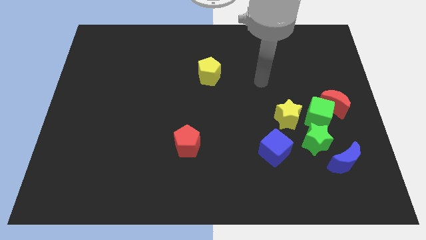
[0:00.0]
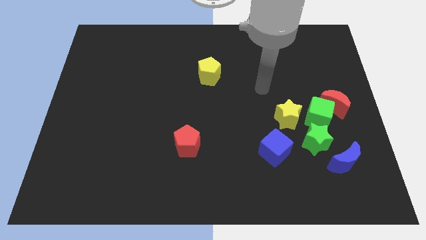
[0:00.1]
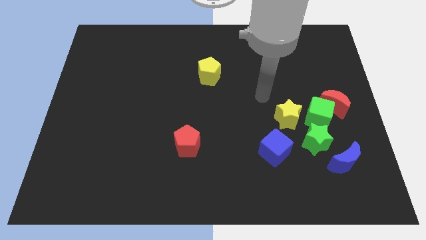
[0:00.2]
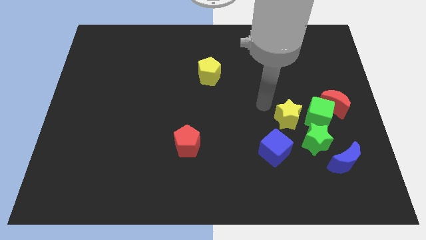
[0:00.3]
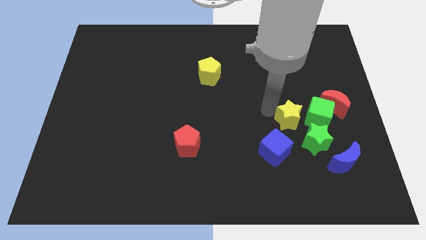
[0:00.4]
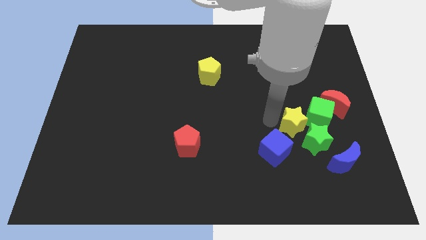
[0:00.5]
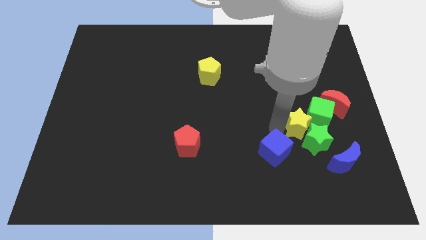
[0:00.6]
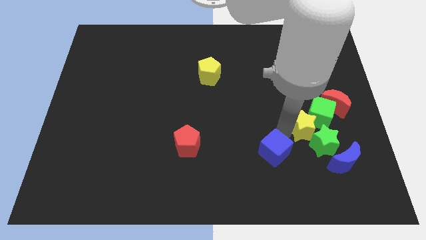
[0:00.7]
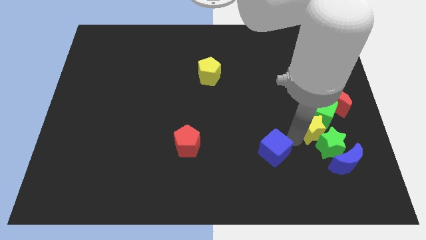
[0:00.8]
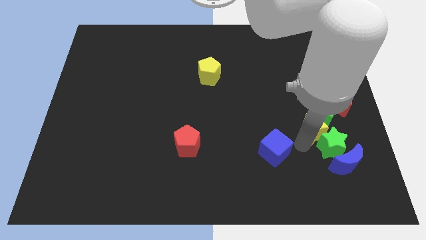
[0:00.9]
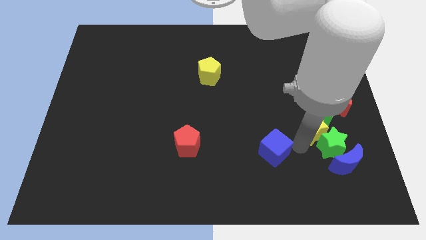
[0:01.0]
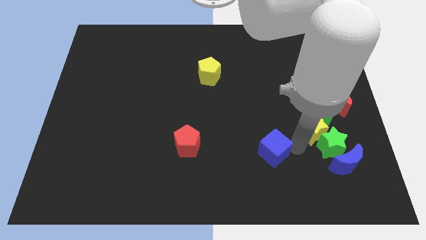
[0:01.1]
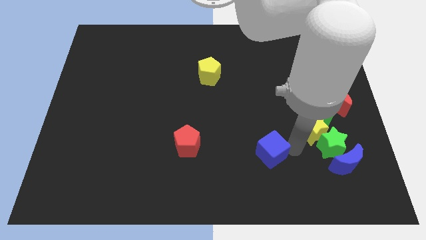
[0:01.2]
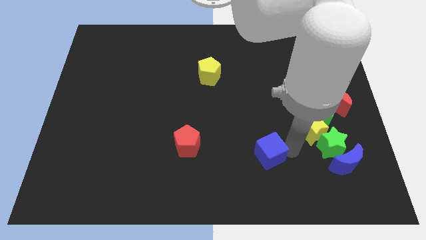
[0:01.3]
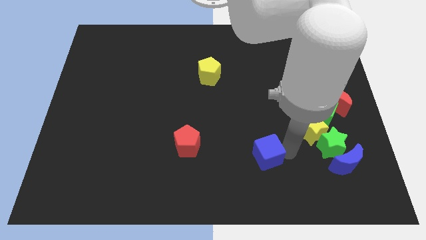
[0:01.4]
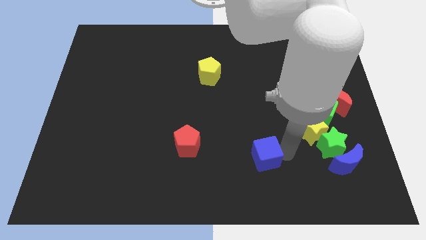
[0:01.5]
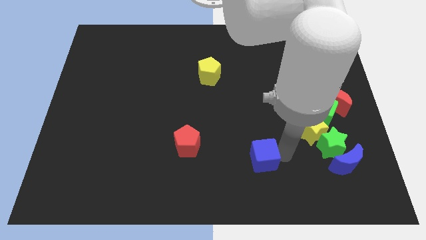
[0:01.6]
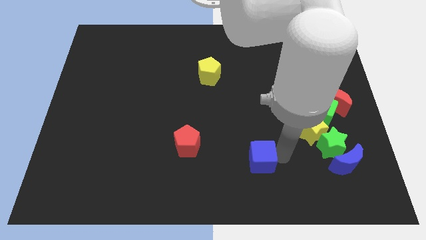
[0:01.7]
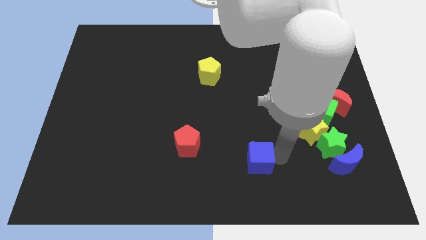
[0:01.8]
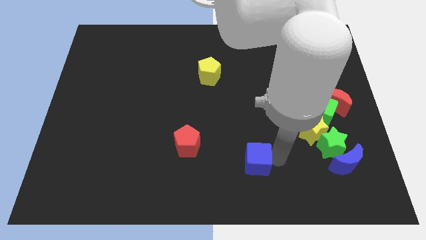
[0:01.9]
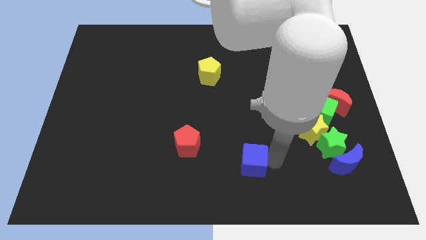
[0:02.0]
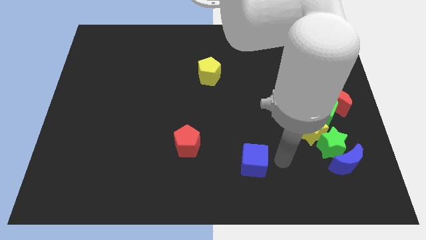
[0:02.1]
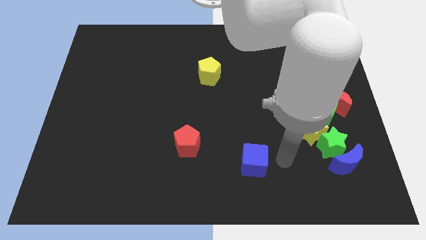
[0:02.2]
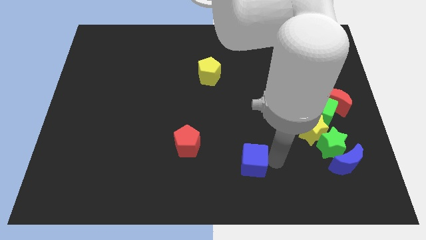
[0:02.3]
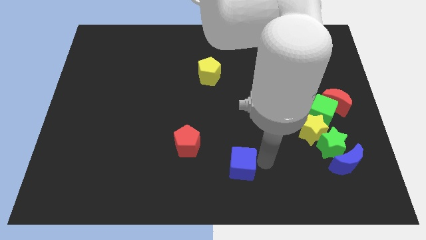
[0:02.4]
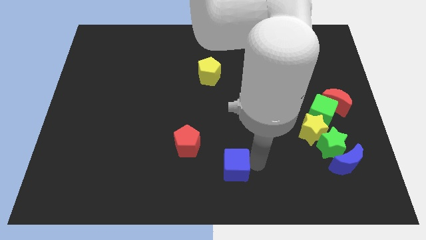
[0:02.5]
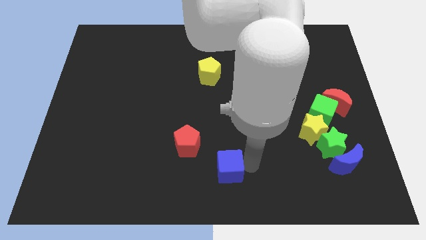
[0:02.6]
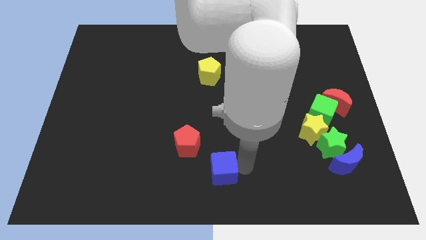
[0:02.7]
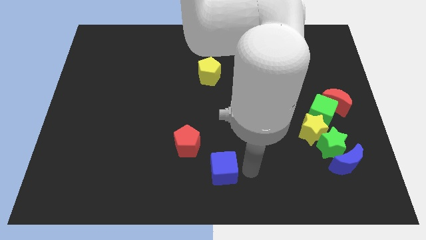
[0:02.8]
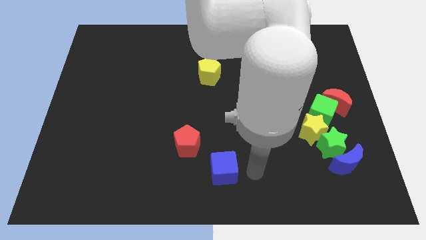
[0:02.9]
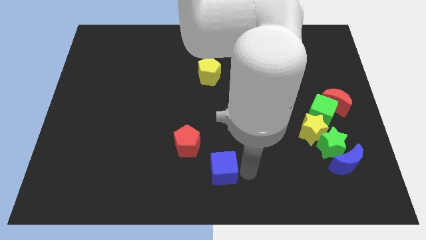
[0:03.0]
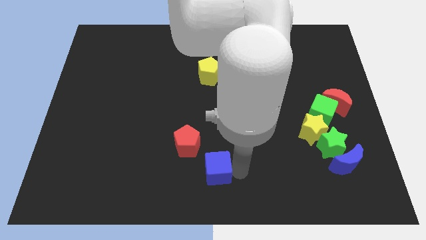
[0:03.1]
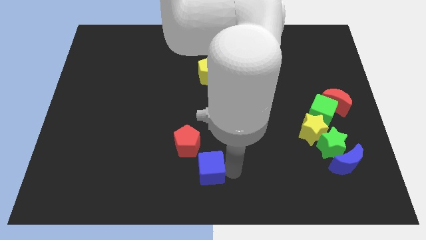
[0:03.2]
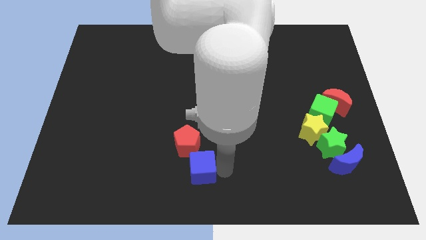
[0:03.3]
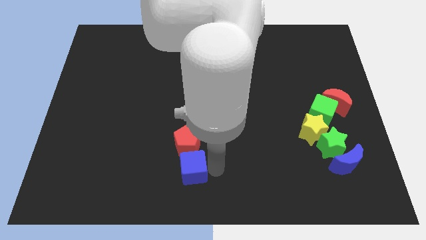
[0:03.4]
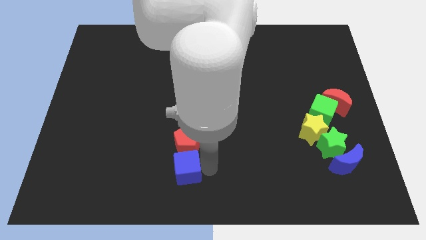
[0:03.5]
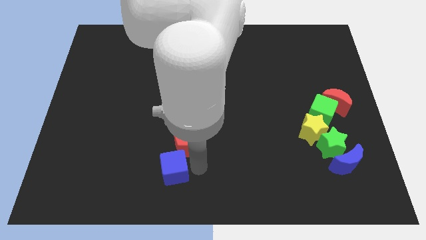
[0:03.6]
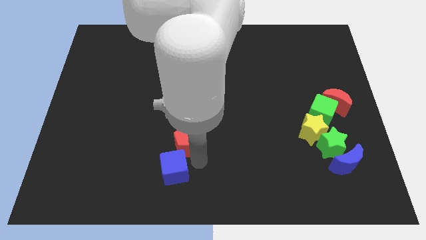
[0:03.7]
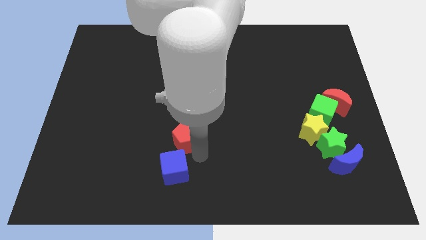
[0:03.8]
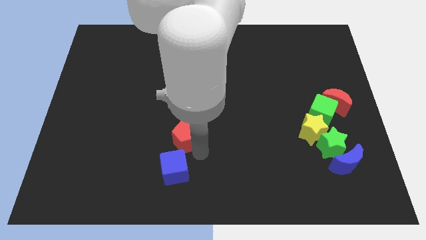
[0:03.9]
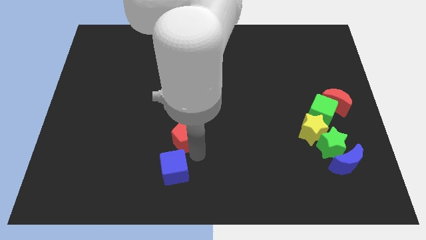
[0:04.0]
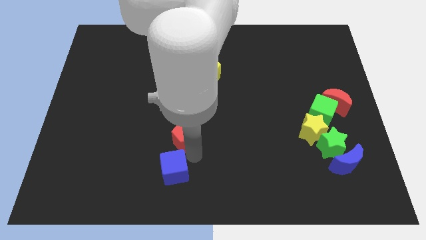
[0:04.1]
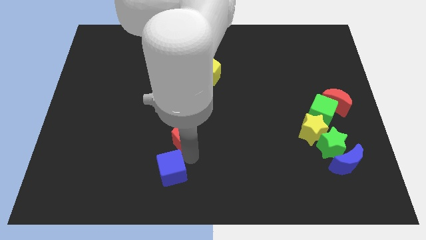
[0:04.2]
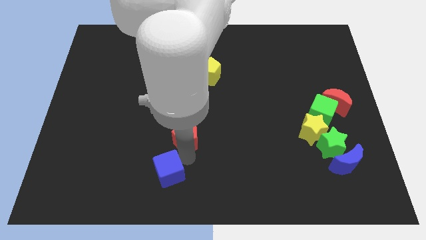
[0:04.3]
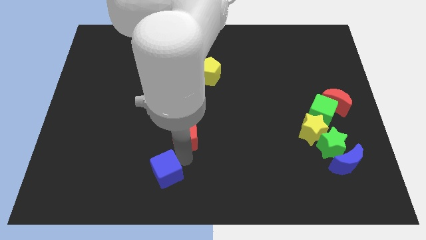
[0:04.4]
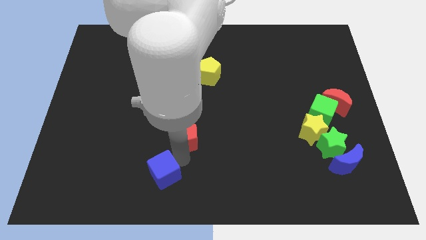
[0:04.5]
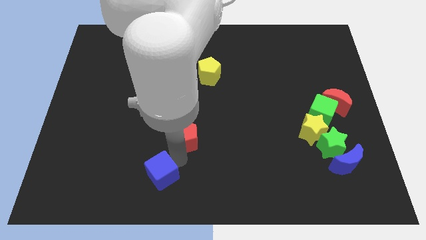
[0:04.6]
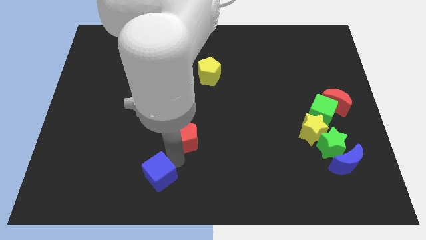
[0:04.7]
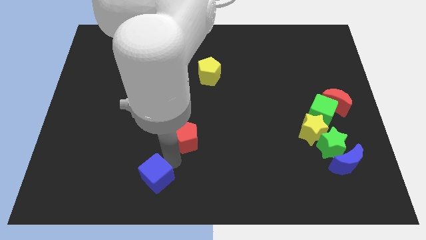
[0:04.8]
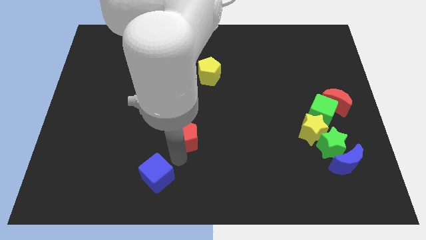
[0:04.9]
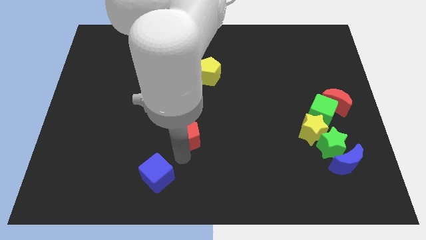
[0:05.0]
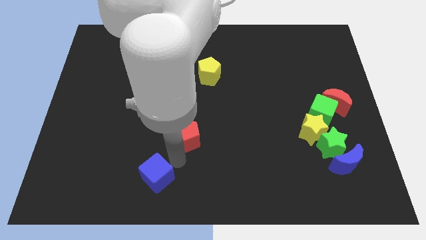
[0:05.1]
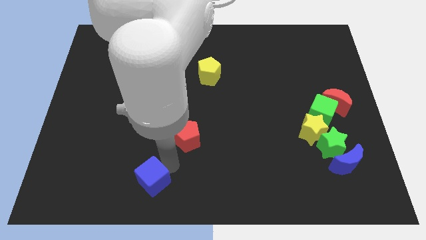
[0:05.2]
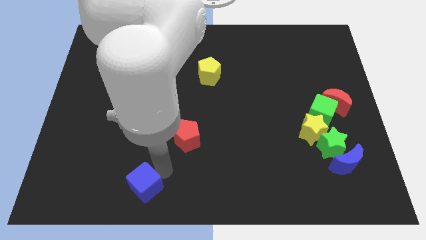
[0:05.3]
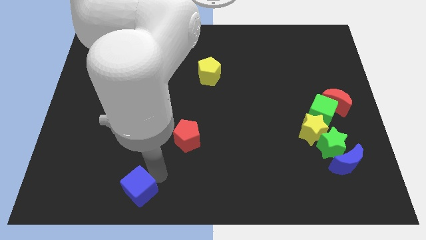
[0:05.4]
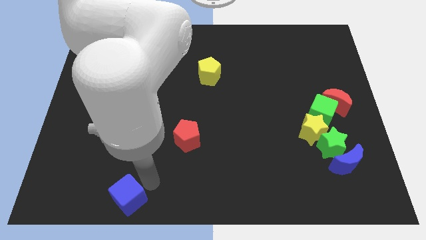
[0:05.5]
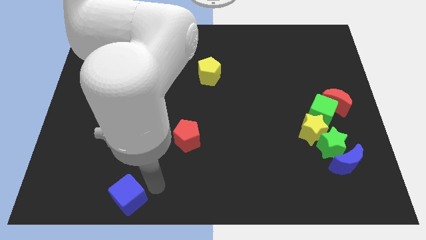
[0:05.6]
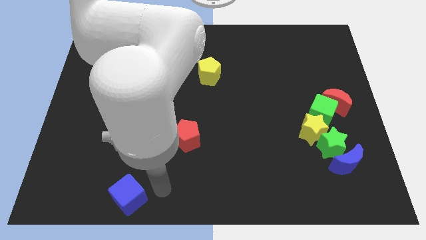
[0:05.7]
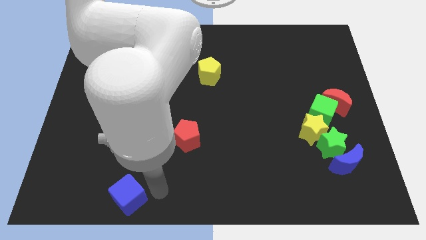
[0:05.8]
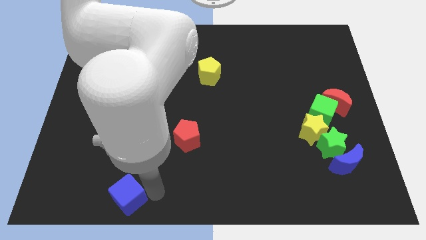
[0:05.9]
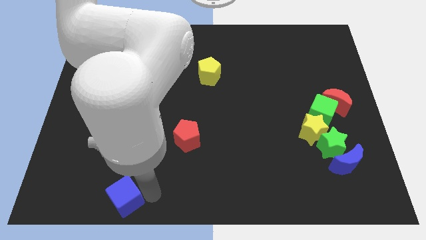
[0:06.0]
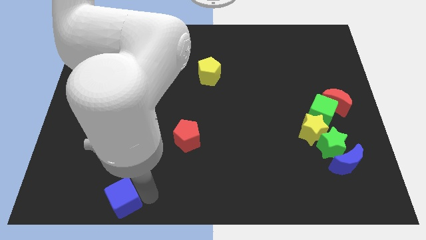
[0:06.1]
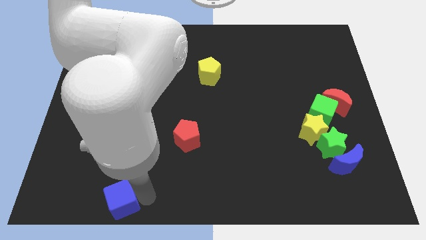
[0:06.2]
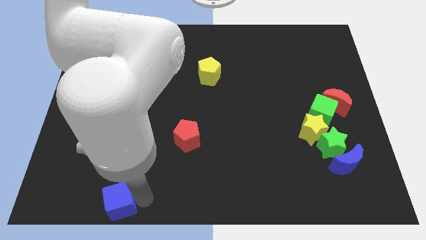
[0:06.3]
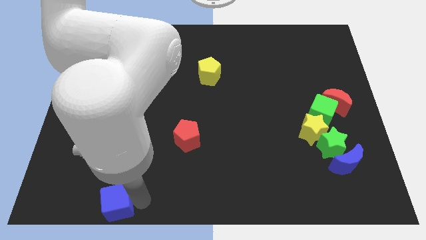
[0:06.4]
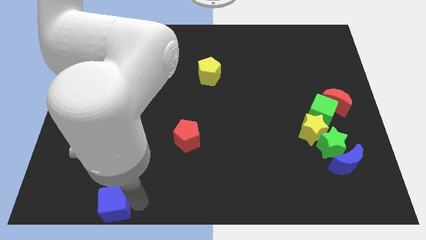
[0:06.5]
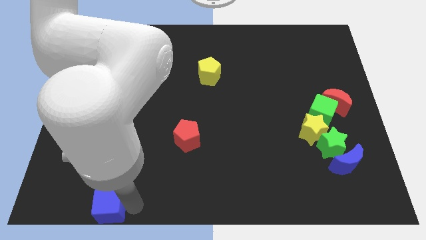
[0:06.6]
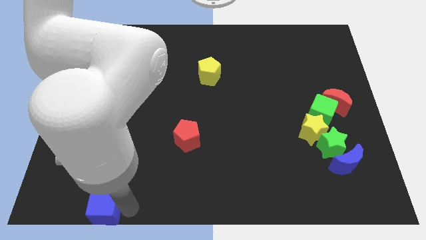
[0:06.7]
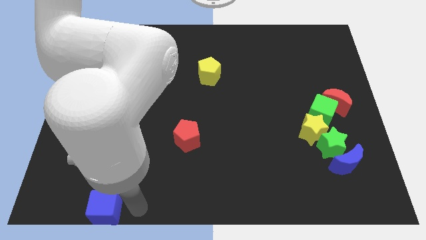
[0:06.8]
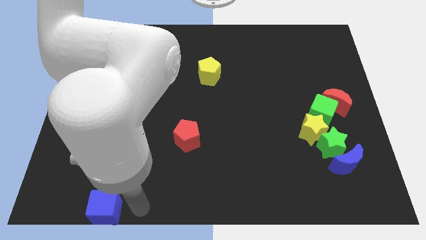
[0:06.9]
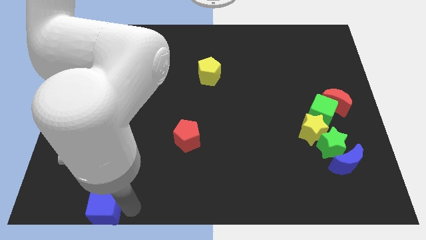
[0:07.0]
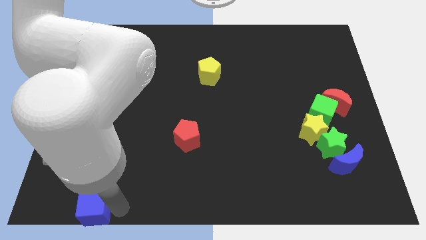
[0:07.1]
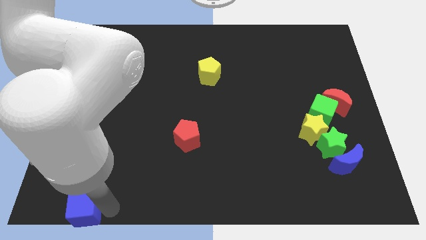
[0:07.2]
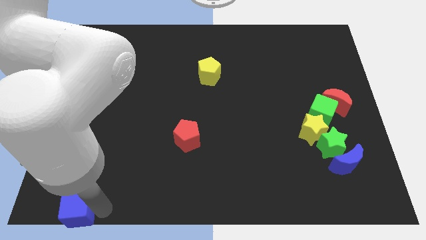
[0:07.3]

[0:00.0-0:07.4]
move the blue cube to the lower left corner
